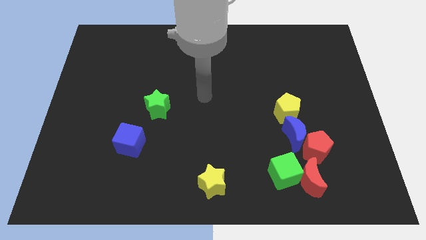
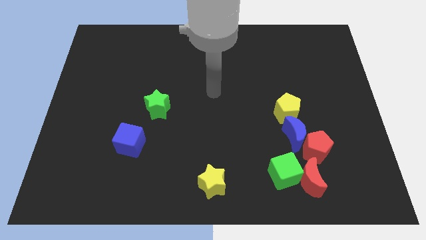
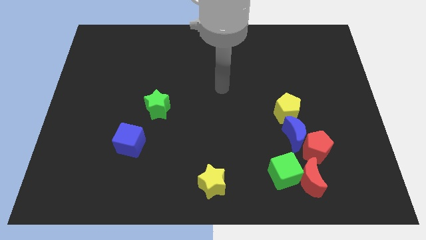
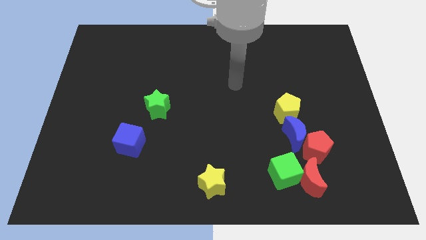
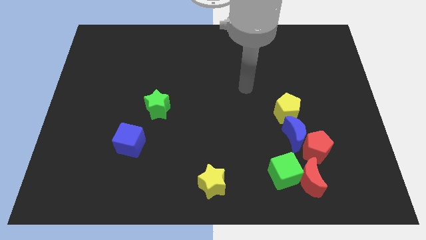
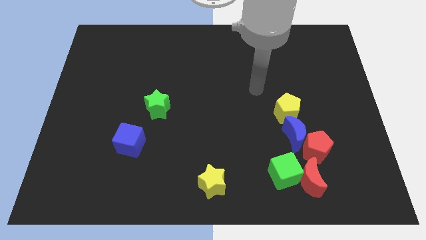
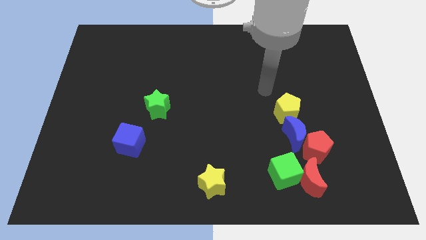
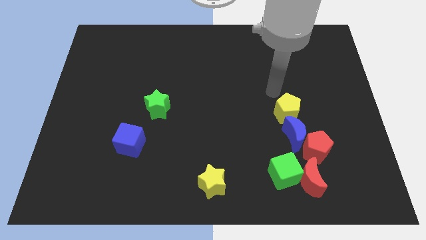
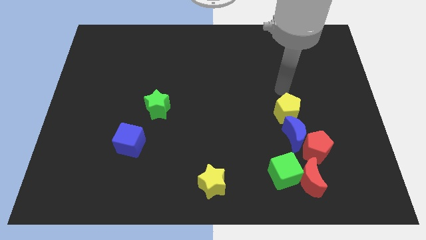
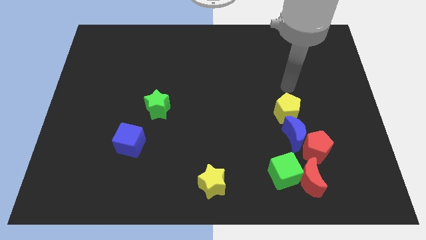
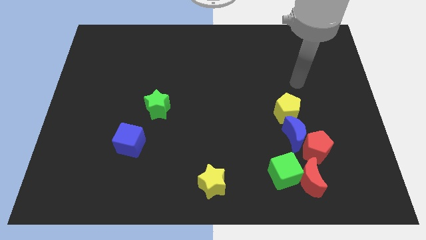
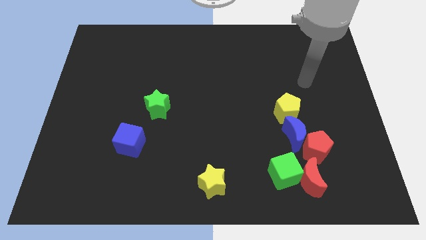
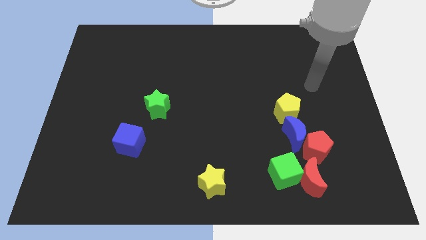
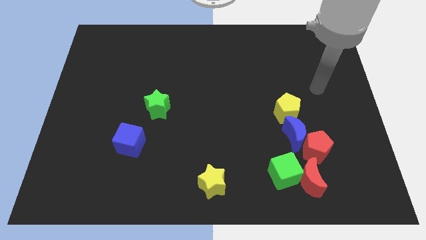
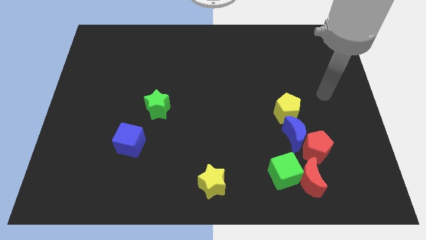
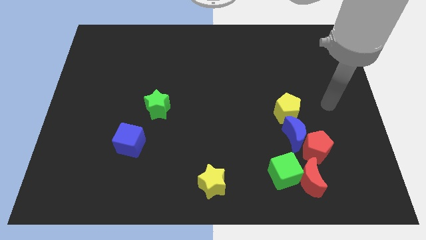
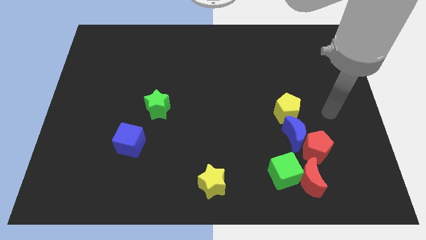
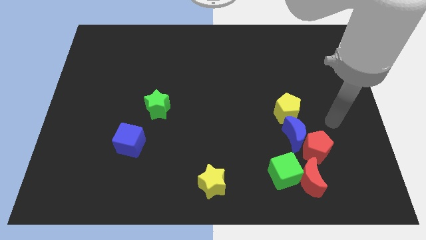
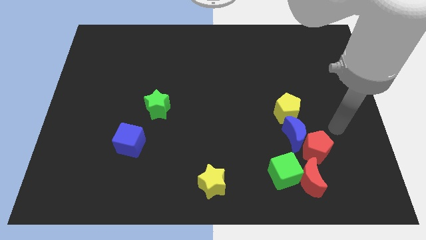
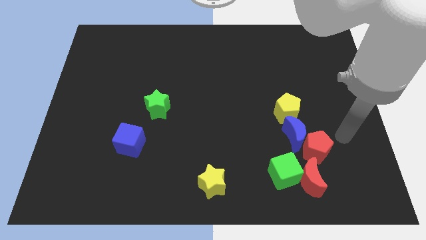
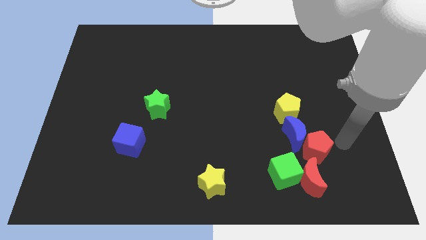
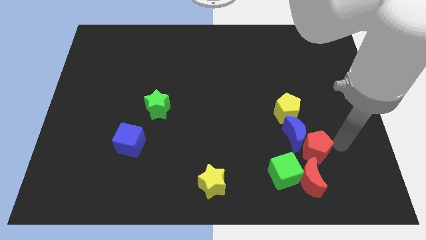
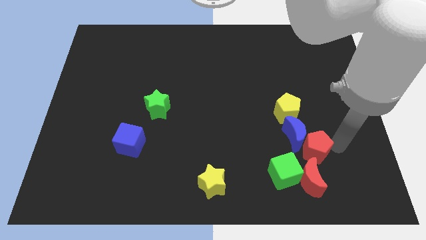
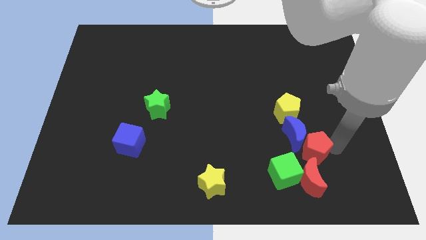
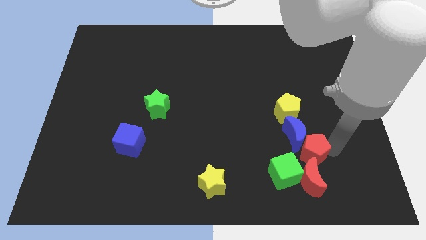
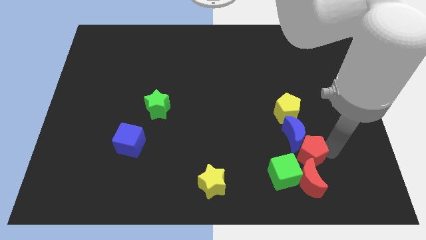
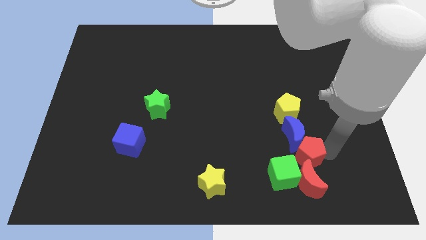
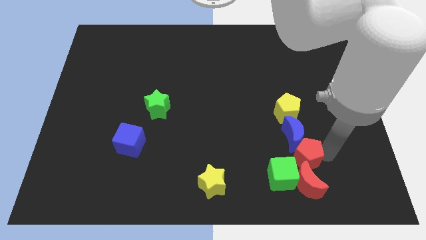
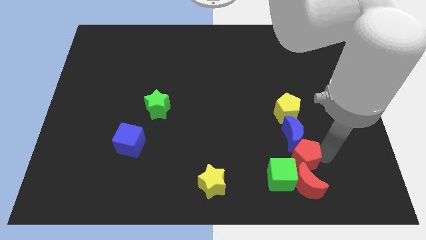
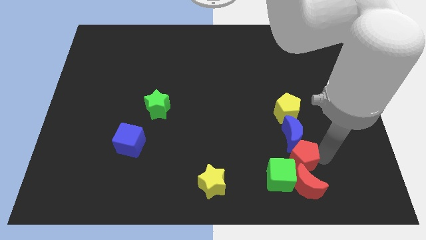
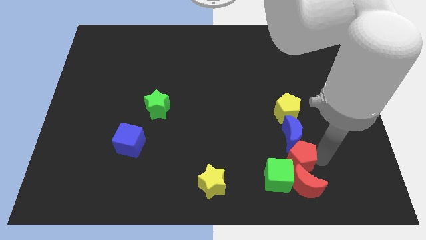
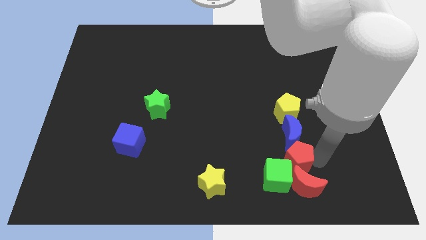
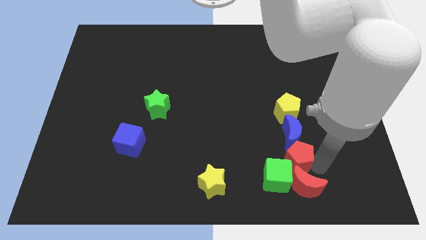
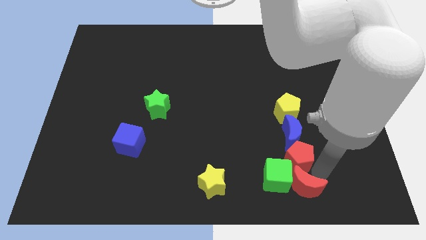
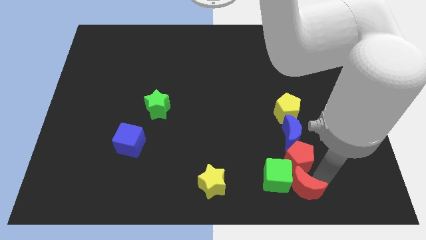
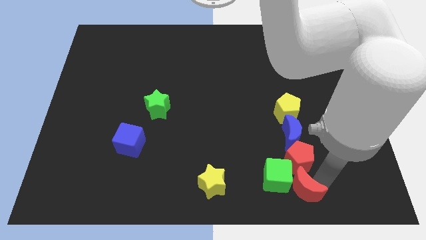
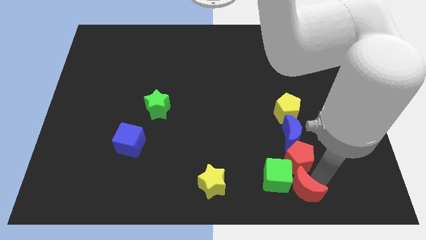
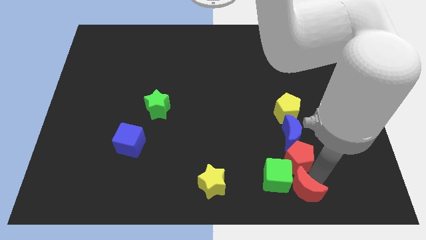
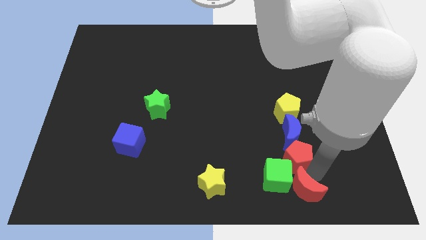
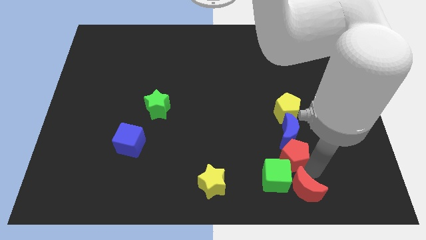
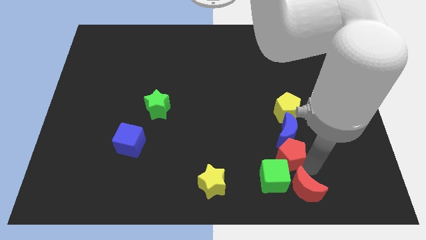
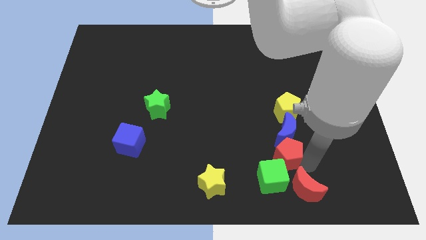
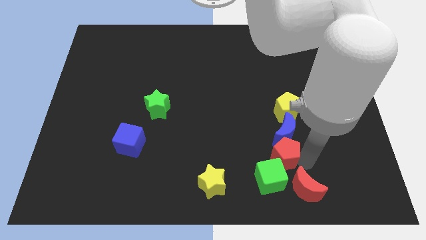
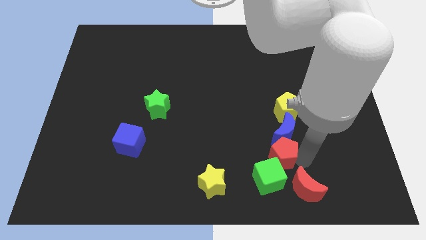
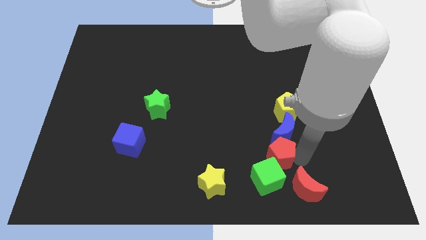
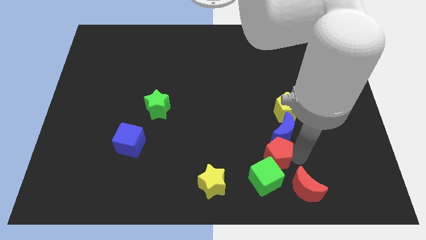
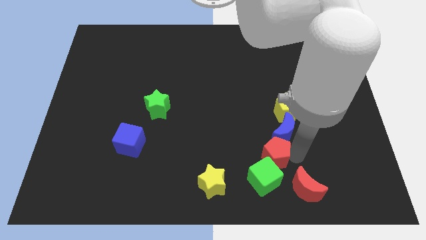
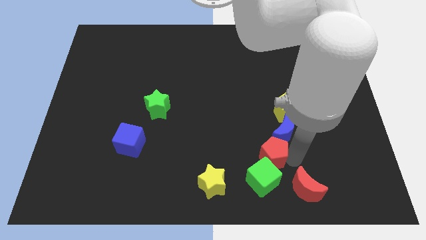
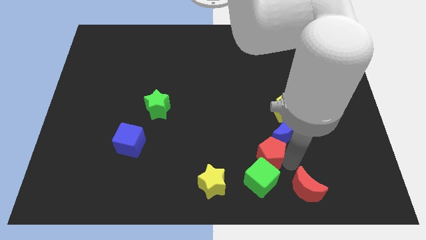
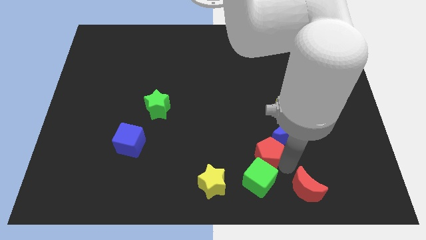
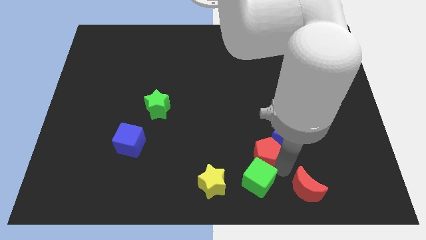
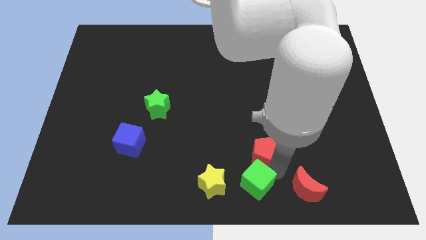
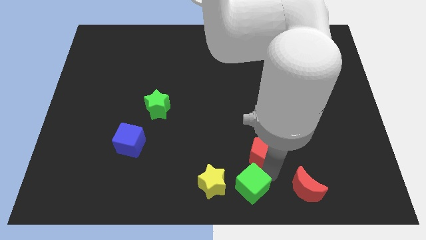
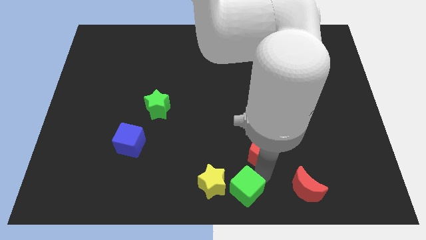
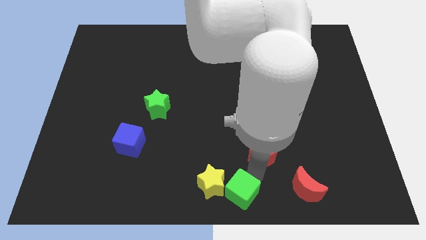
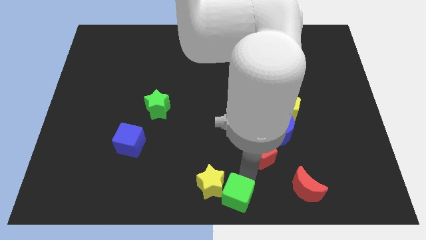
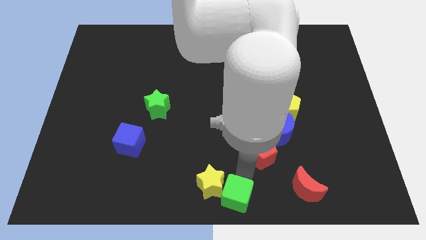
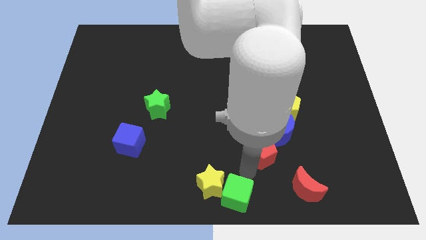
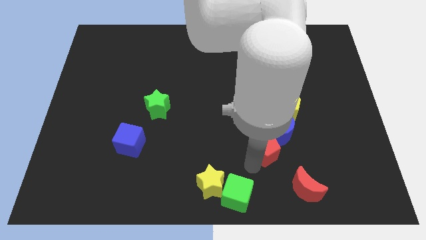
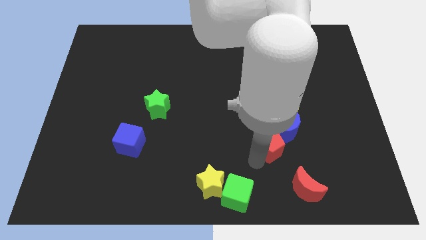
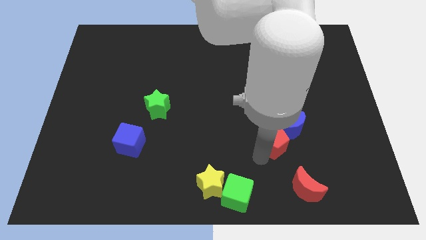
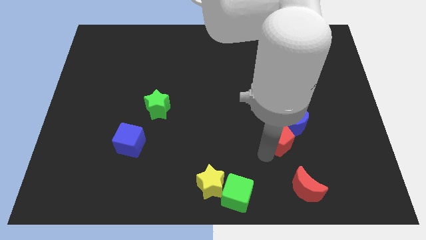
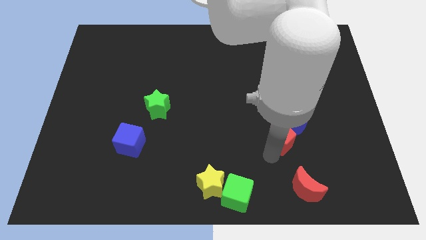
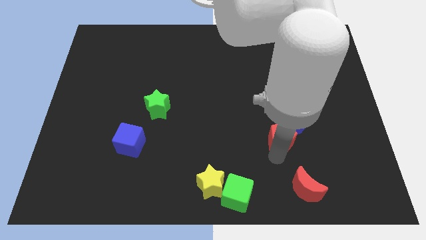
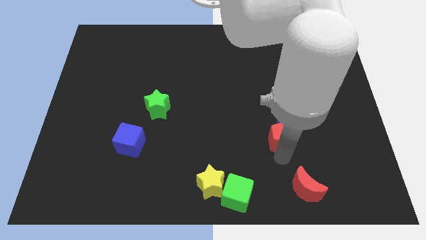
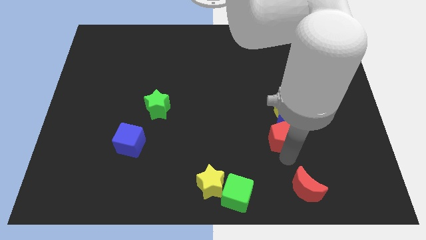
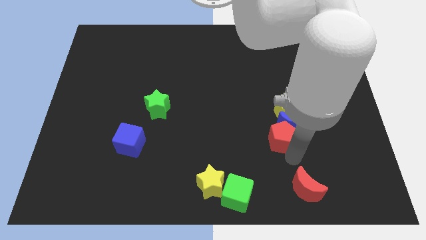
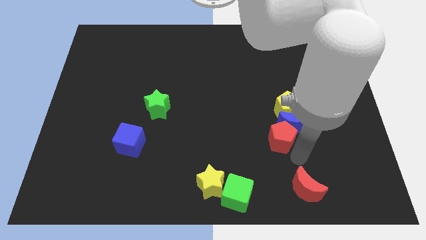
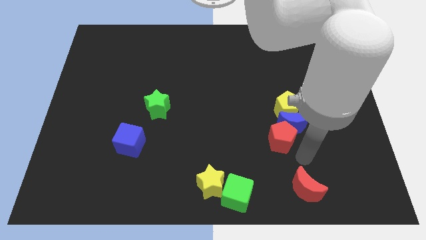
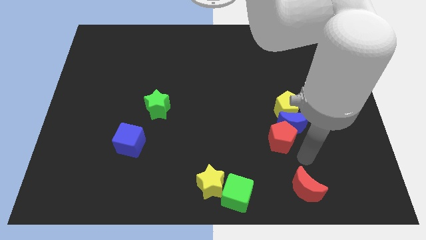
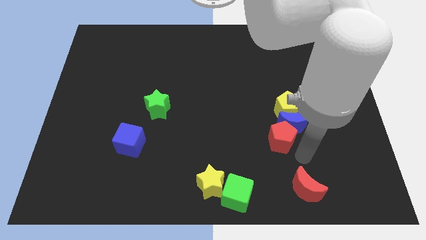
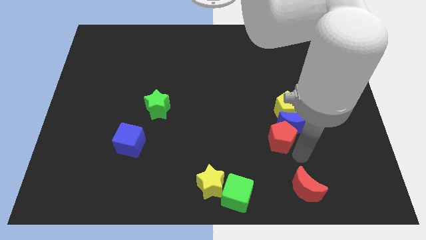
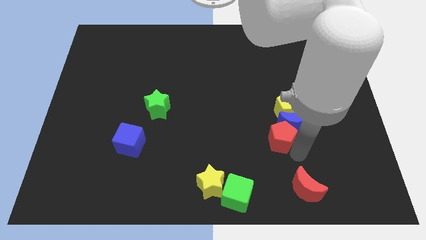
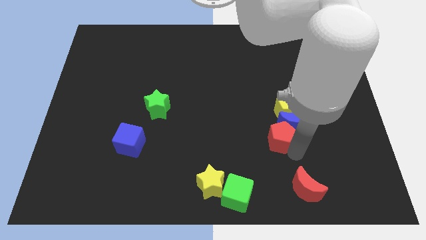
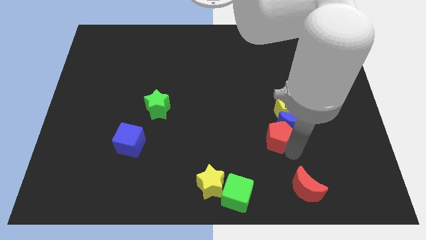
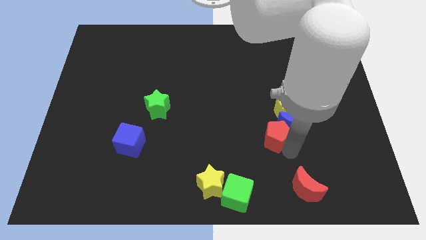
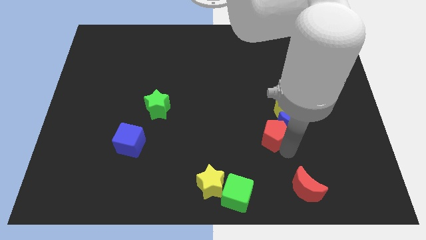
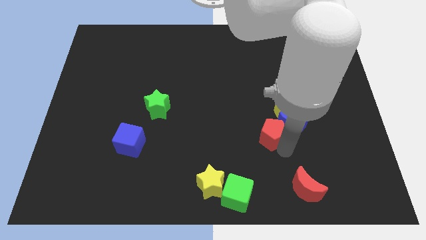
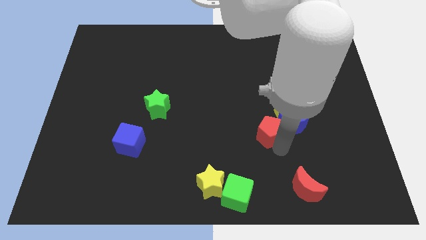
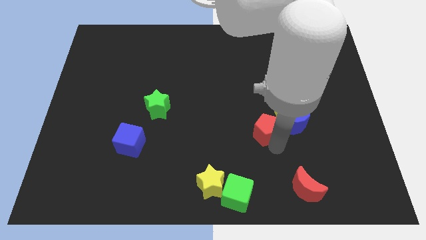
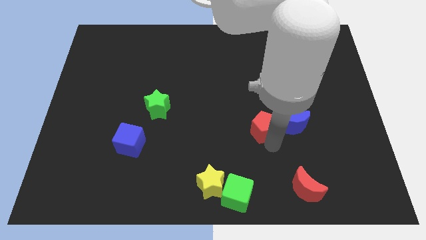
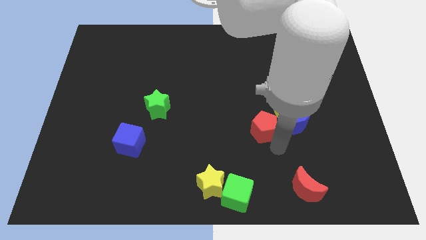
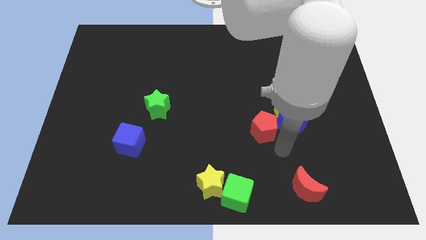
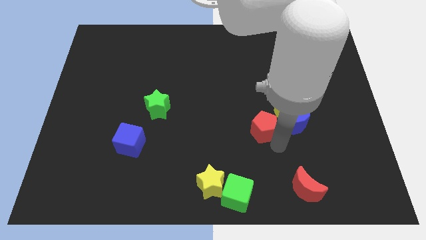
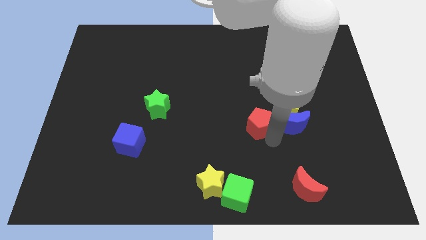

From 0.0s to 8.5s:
push the red pentagon to the left side of the yellow pentagon
